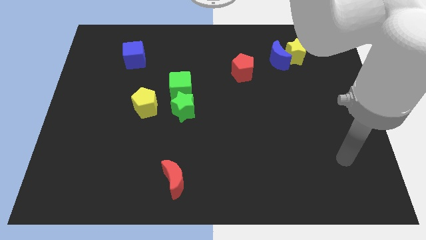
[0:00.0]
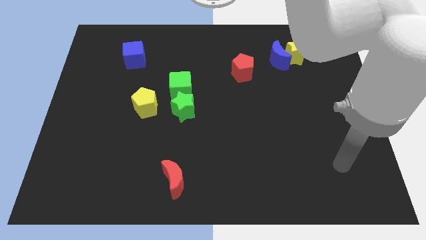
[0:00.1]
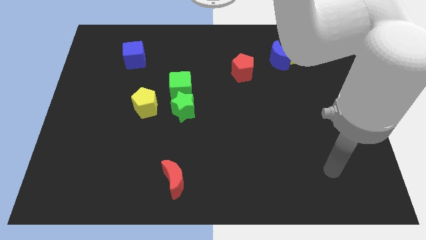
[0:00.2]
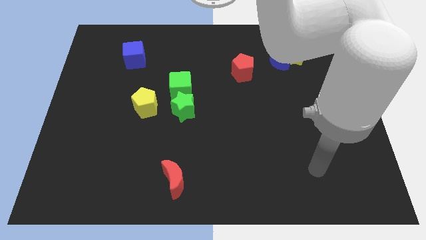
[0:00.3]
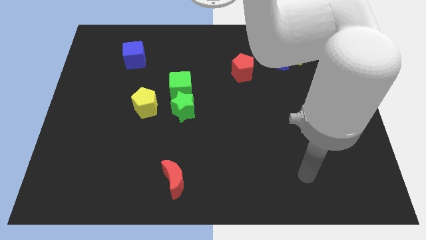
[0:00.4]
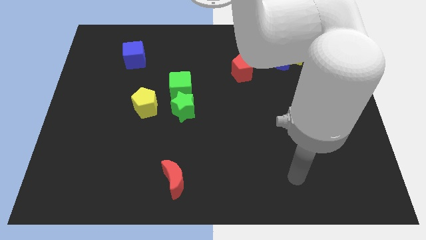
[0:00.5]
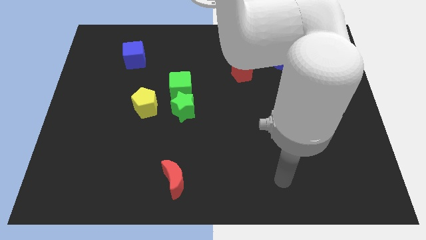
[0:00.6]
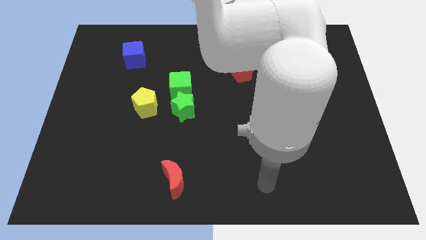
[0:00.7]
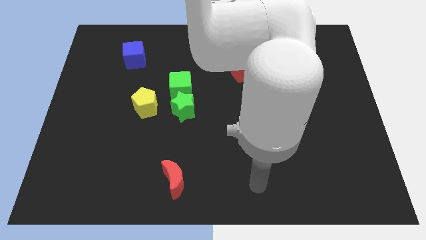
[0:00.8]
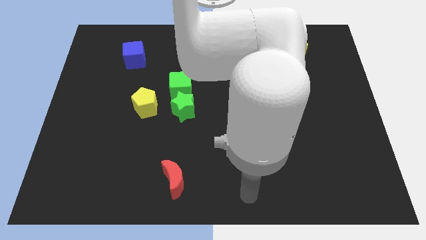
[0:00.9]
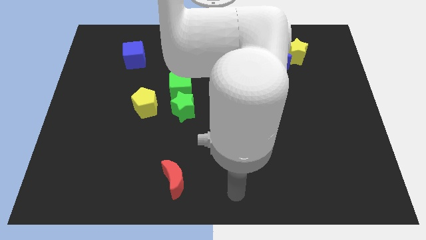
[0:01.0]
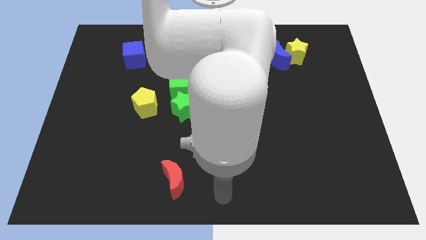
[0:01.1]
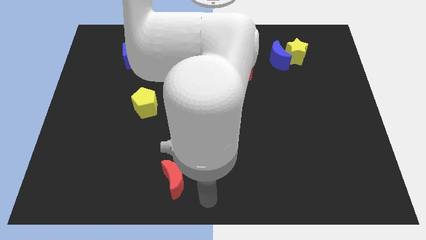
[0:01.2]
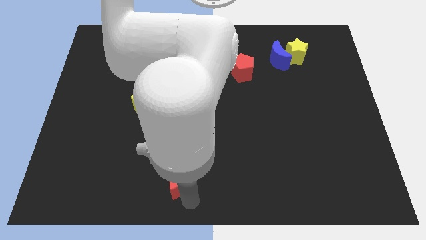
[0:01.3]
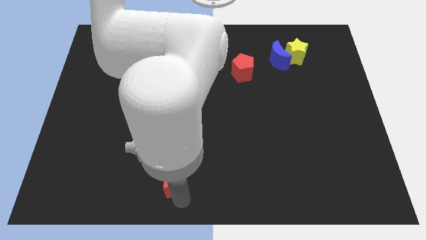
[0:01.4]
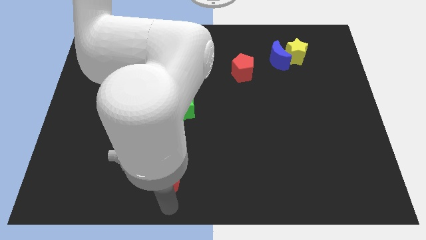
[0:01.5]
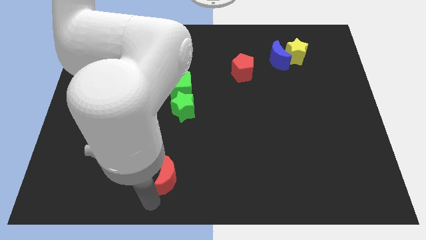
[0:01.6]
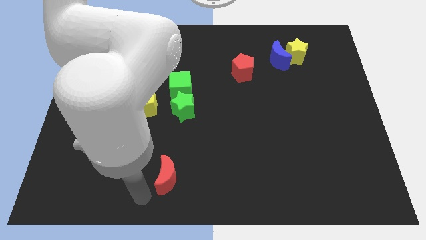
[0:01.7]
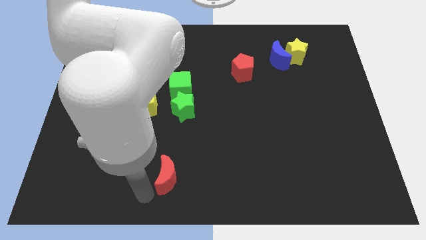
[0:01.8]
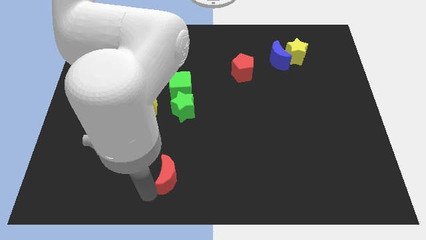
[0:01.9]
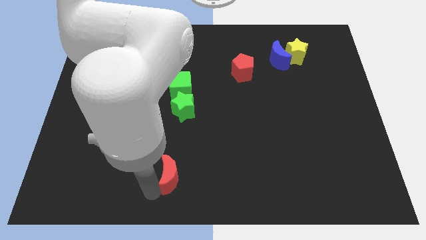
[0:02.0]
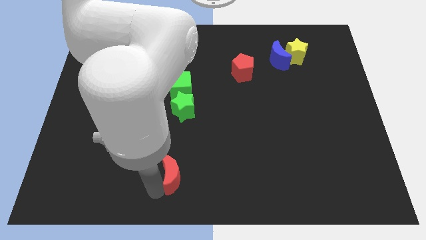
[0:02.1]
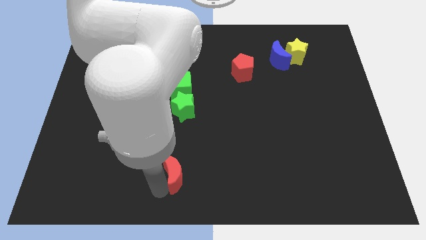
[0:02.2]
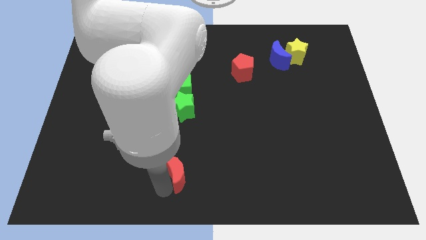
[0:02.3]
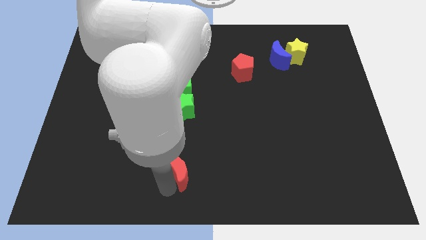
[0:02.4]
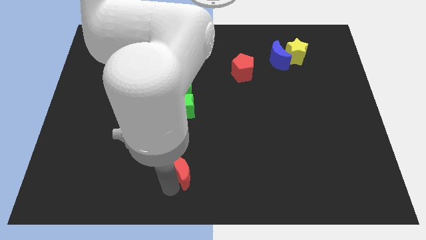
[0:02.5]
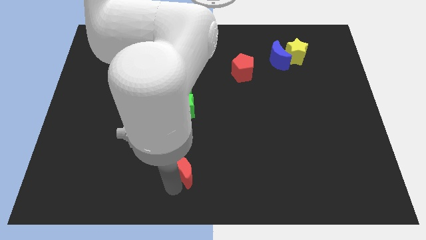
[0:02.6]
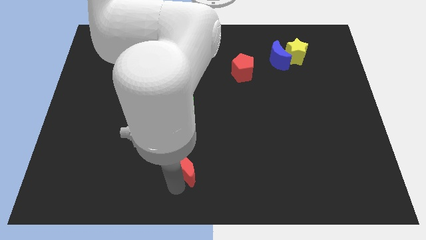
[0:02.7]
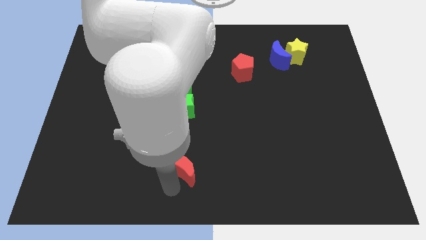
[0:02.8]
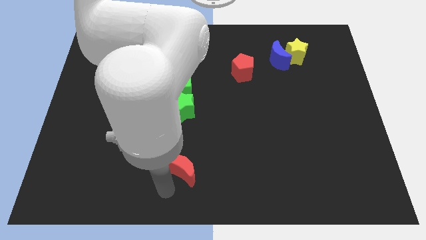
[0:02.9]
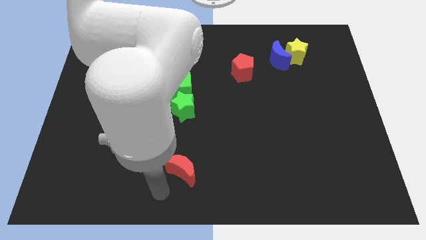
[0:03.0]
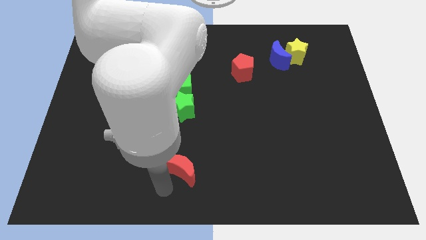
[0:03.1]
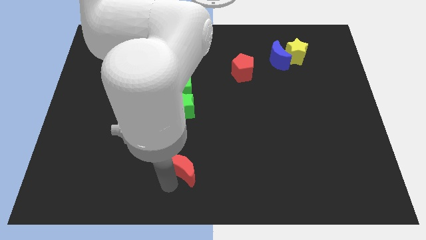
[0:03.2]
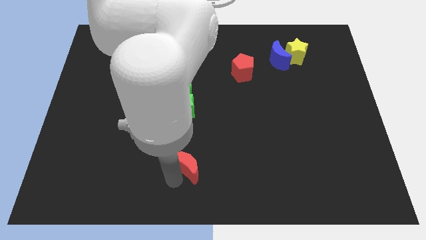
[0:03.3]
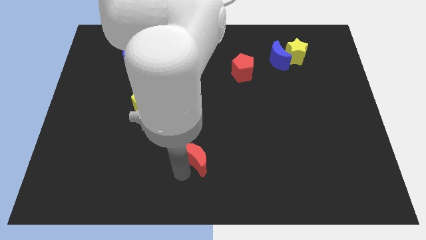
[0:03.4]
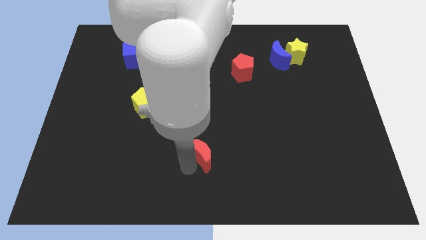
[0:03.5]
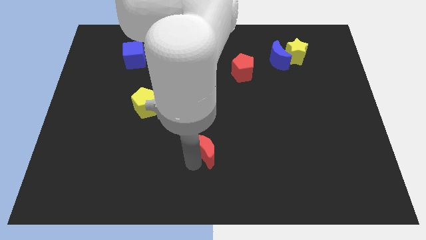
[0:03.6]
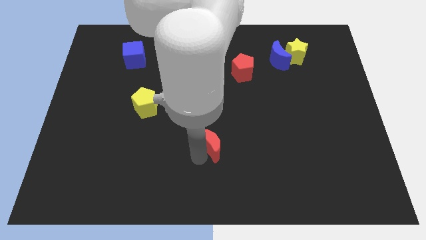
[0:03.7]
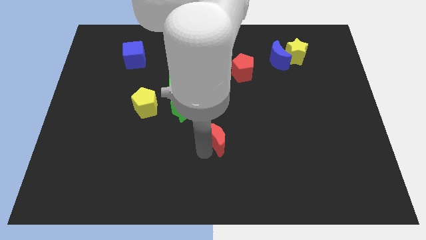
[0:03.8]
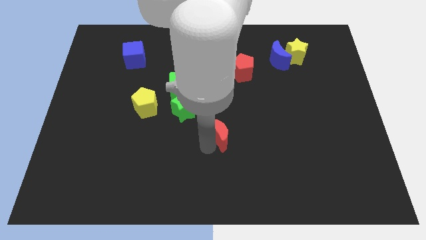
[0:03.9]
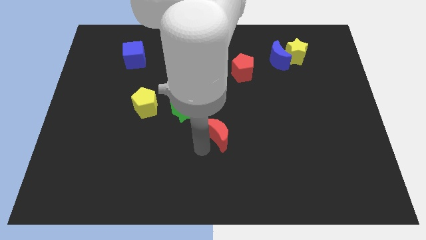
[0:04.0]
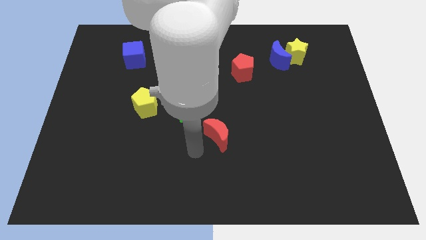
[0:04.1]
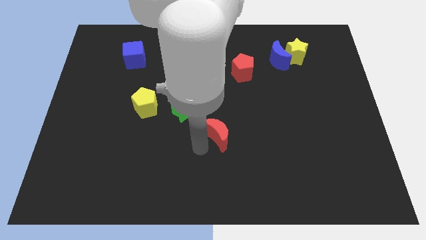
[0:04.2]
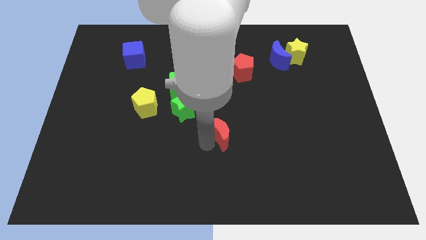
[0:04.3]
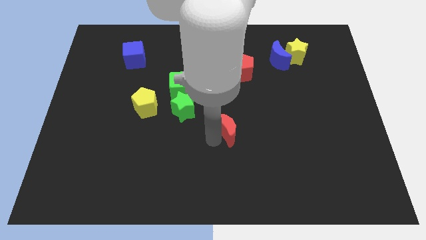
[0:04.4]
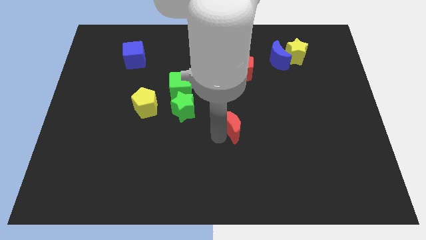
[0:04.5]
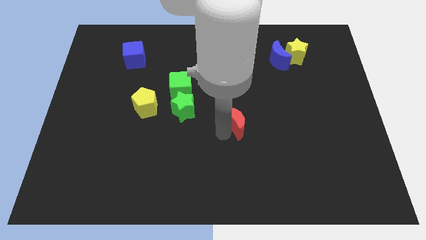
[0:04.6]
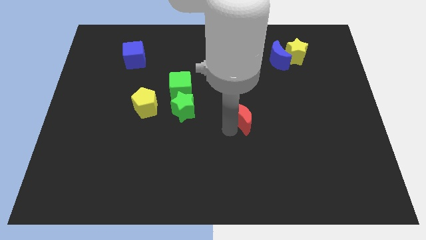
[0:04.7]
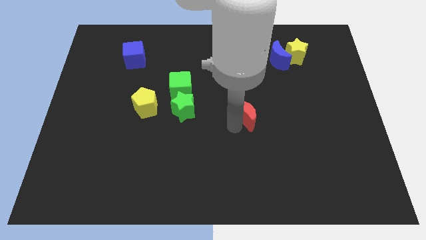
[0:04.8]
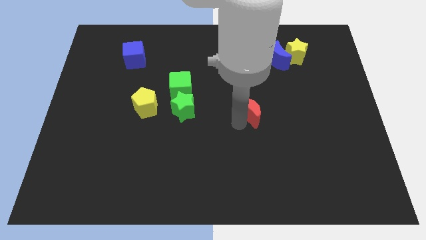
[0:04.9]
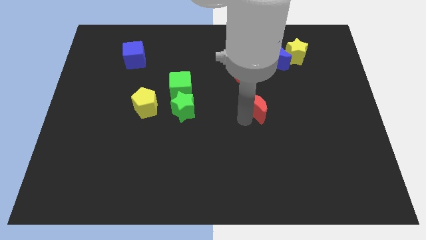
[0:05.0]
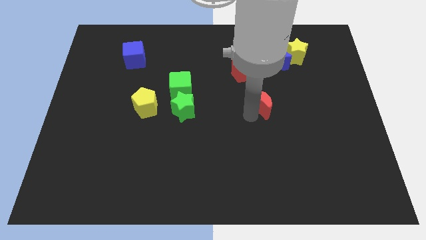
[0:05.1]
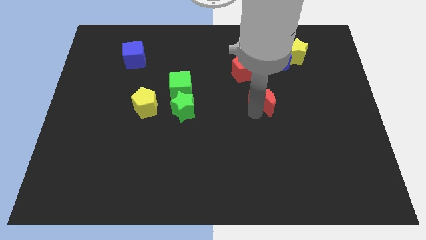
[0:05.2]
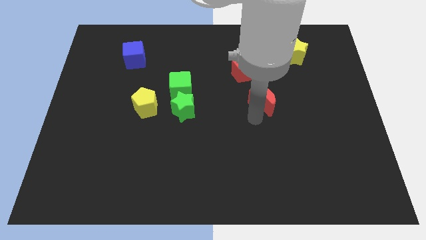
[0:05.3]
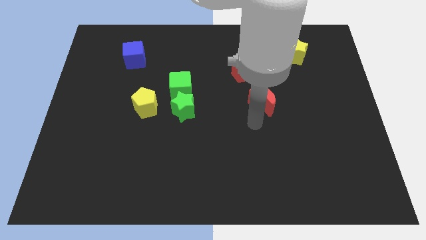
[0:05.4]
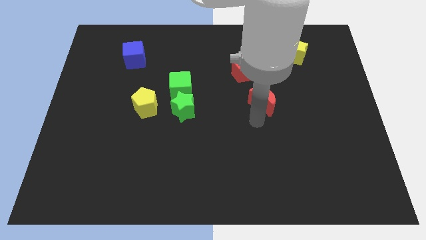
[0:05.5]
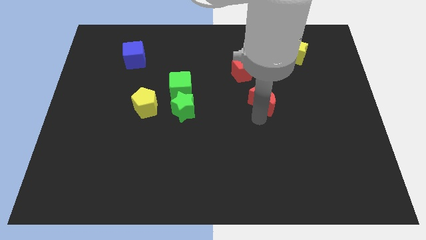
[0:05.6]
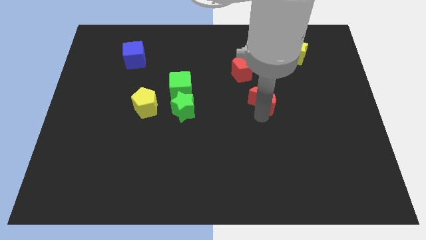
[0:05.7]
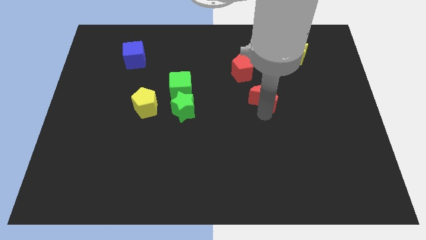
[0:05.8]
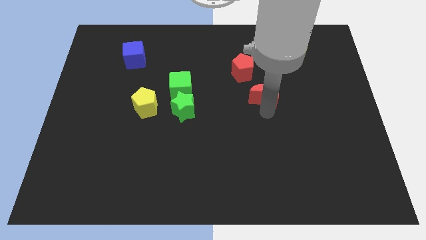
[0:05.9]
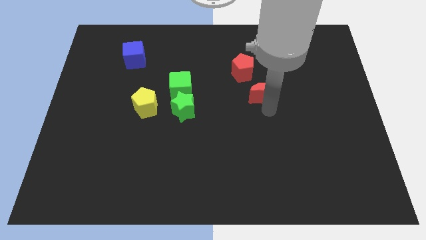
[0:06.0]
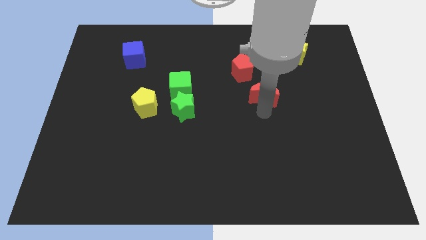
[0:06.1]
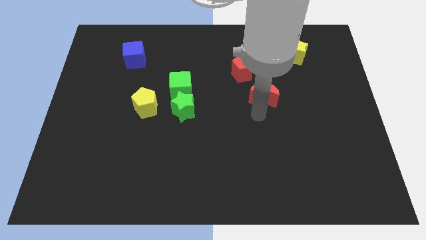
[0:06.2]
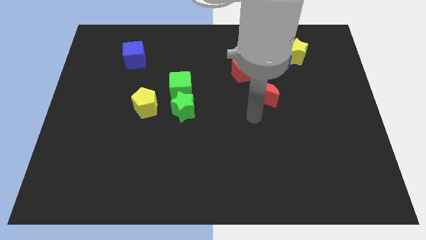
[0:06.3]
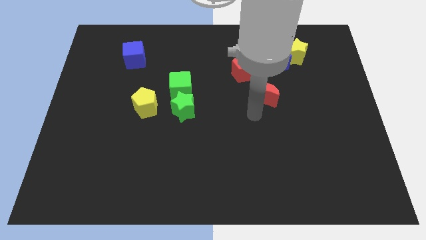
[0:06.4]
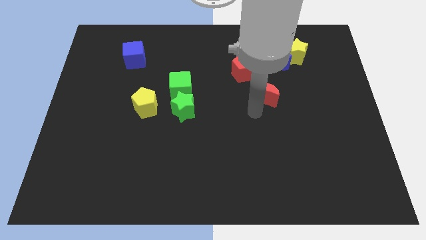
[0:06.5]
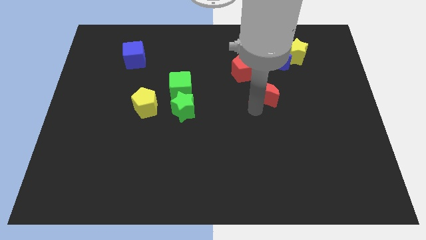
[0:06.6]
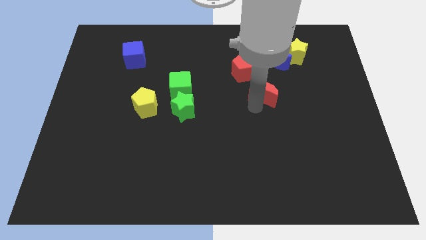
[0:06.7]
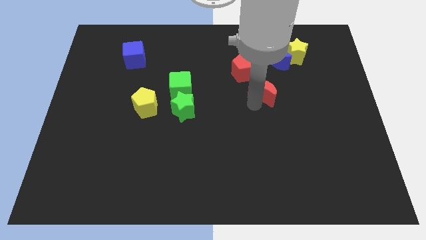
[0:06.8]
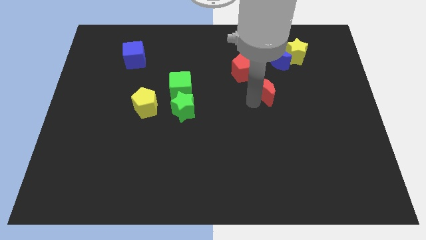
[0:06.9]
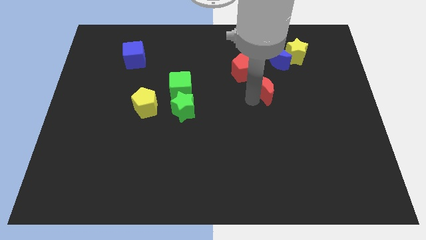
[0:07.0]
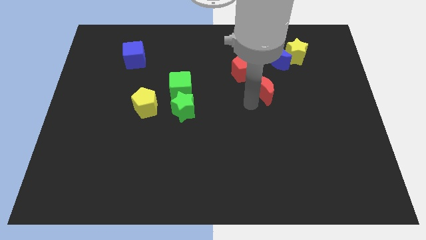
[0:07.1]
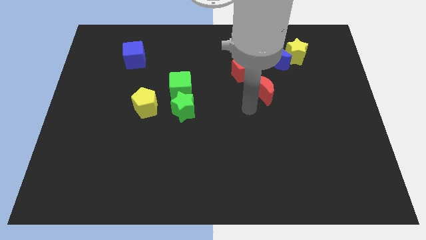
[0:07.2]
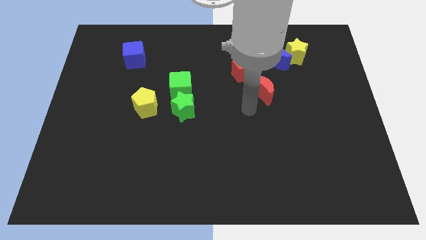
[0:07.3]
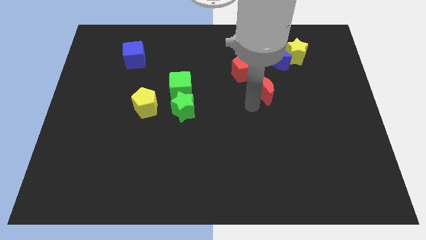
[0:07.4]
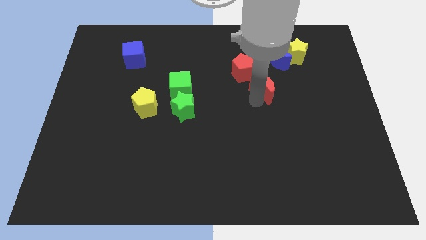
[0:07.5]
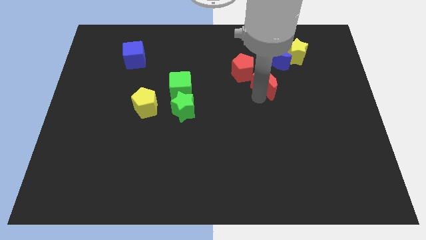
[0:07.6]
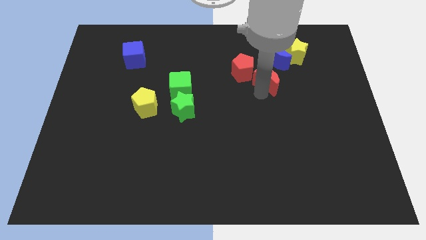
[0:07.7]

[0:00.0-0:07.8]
put the red moon right of the red pentagon

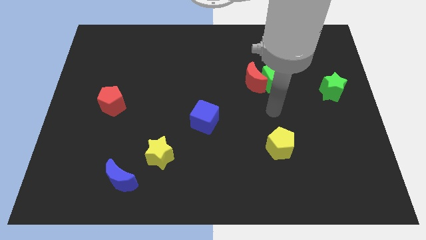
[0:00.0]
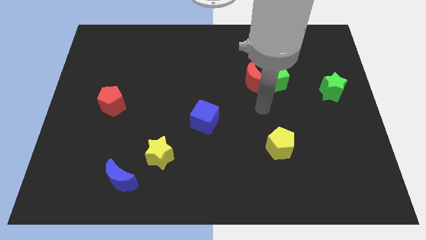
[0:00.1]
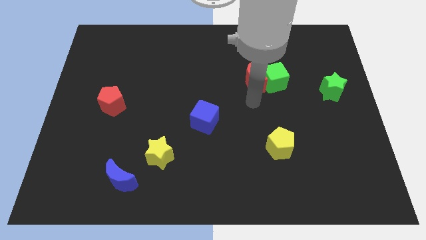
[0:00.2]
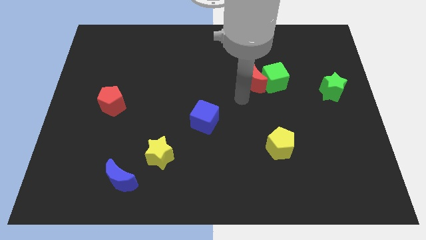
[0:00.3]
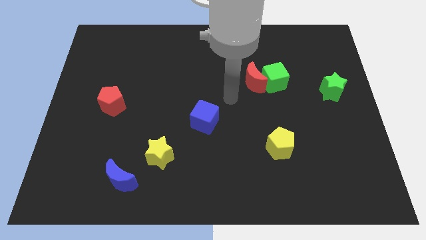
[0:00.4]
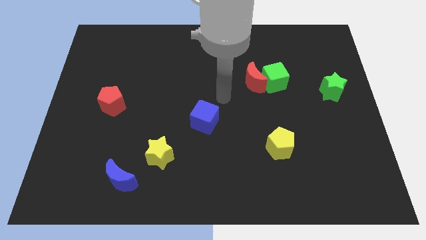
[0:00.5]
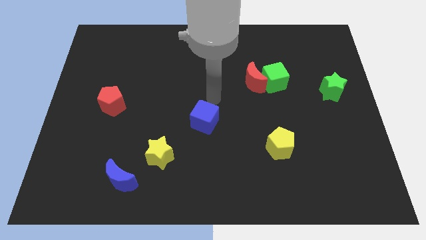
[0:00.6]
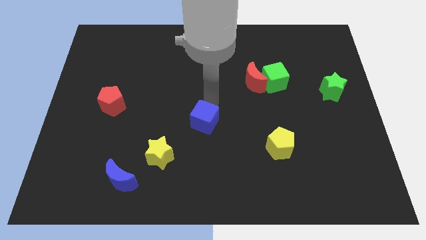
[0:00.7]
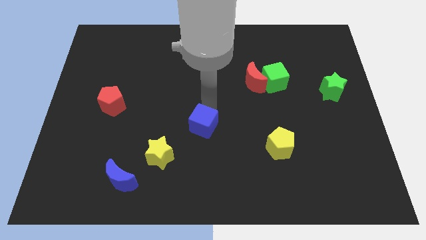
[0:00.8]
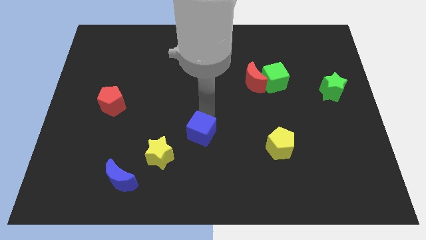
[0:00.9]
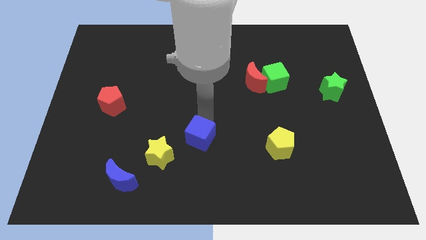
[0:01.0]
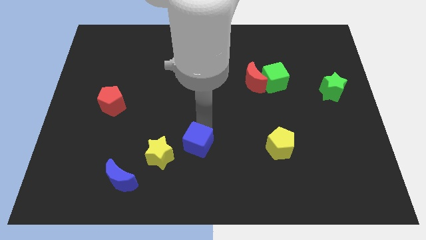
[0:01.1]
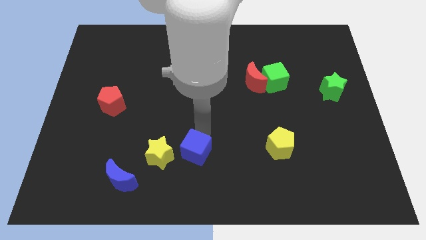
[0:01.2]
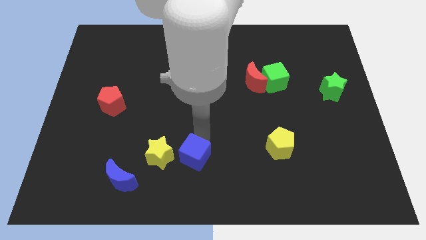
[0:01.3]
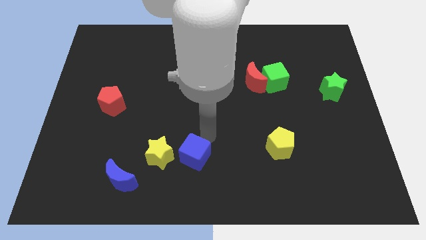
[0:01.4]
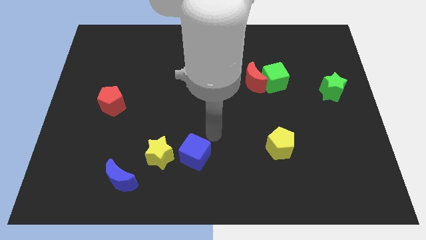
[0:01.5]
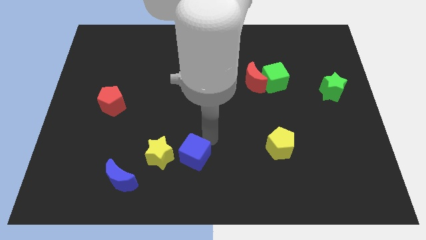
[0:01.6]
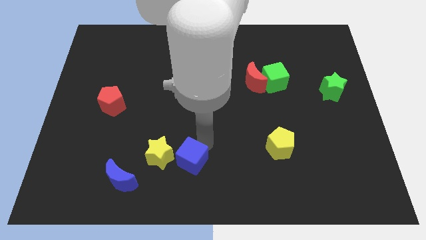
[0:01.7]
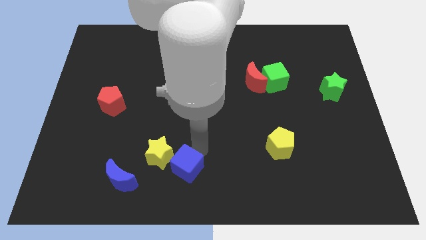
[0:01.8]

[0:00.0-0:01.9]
move the blue cube just right of the blue moon
